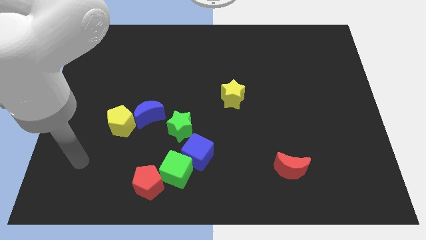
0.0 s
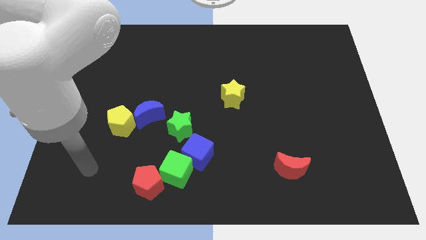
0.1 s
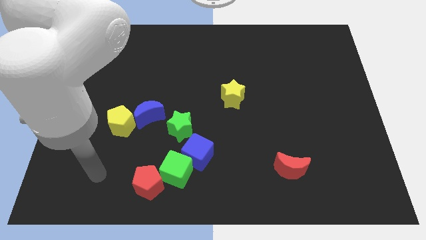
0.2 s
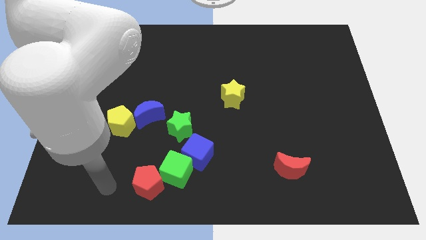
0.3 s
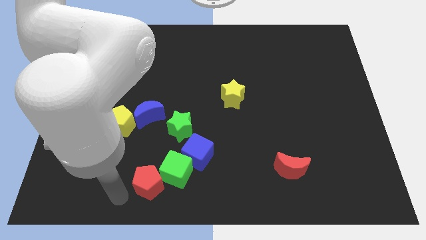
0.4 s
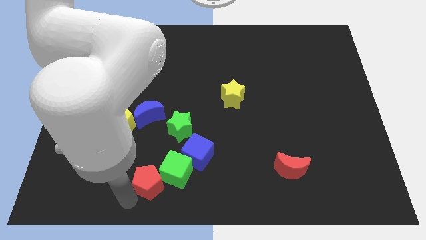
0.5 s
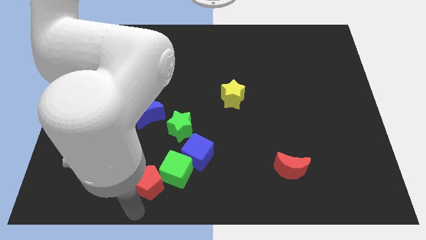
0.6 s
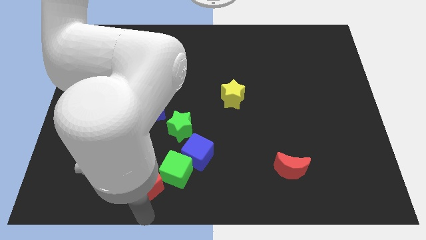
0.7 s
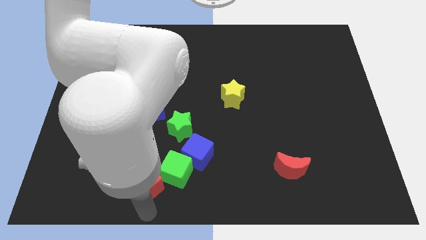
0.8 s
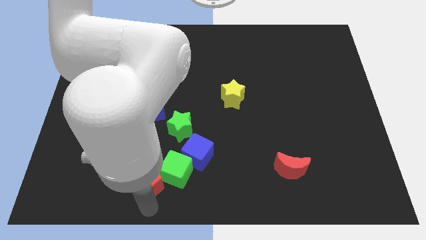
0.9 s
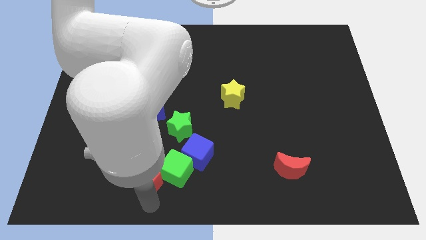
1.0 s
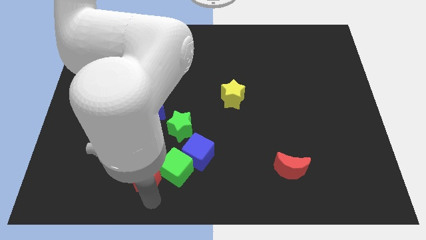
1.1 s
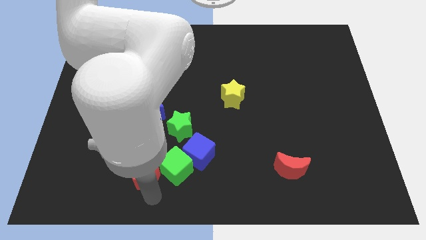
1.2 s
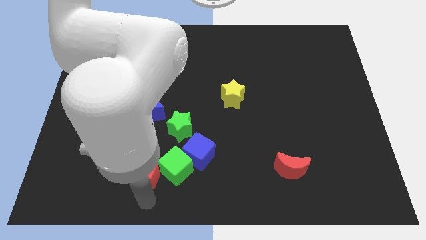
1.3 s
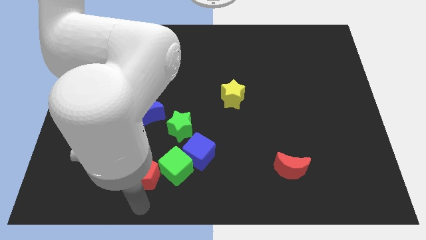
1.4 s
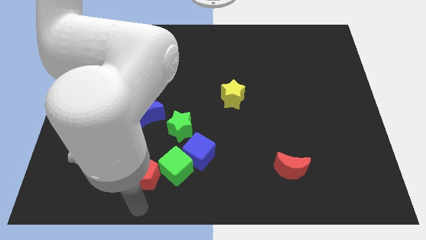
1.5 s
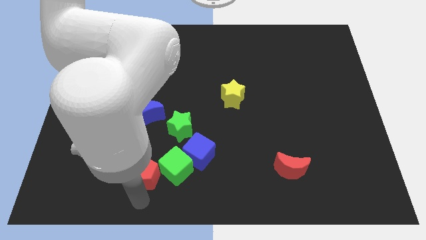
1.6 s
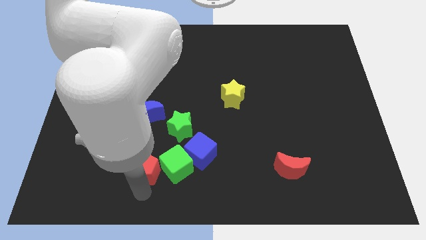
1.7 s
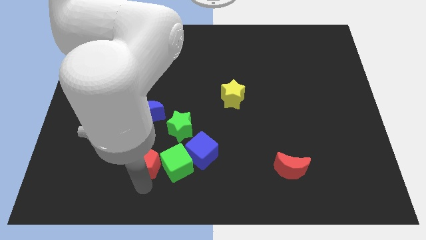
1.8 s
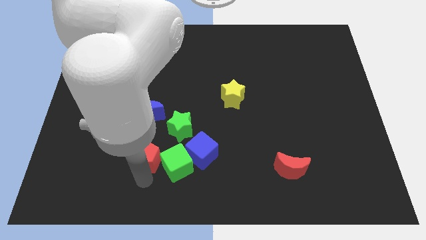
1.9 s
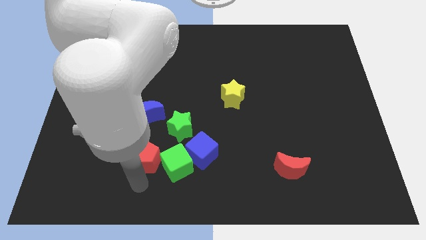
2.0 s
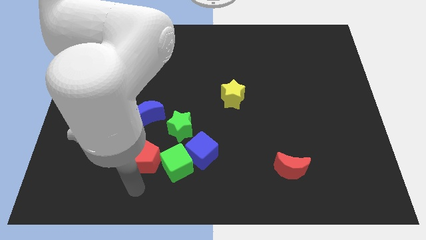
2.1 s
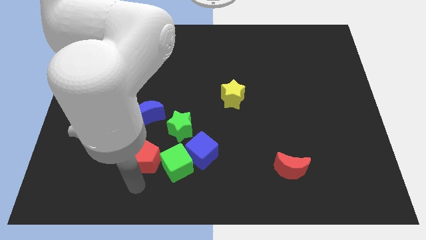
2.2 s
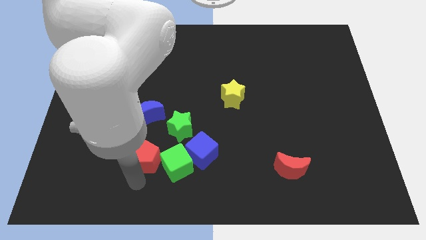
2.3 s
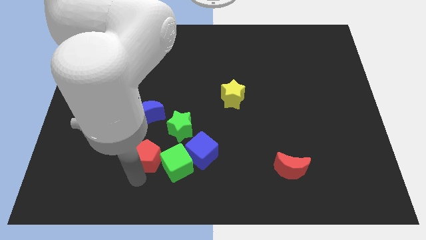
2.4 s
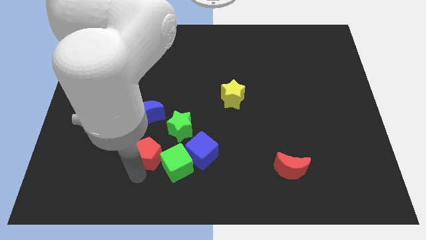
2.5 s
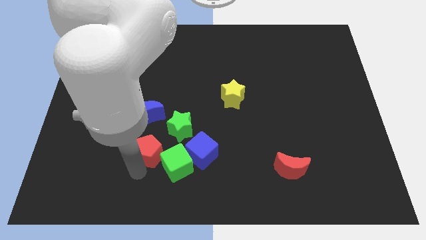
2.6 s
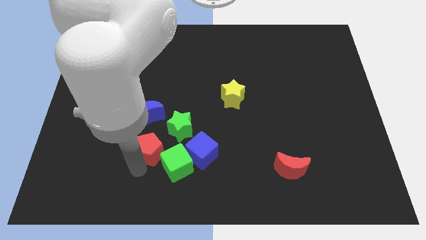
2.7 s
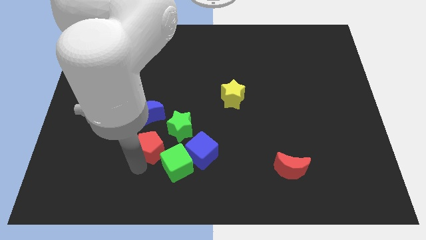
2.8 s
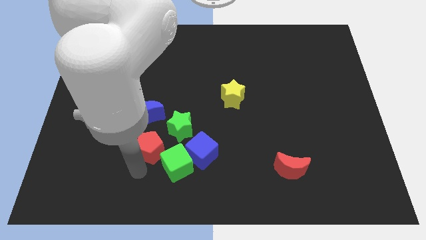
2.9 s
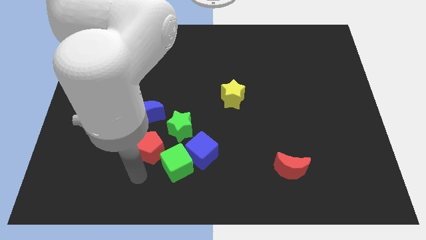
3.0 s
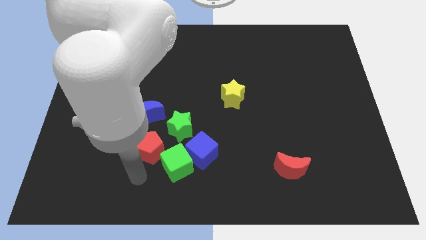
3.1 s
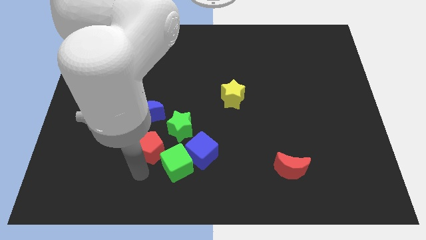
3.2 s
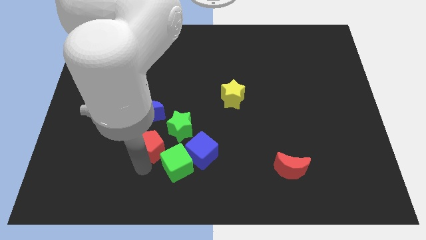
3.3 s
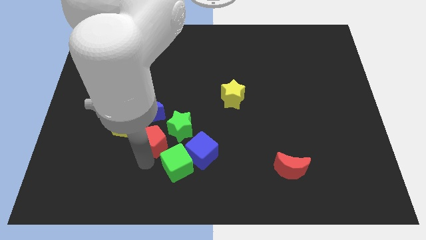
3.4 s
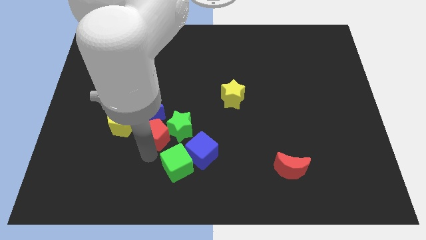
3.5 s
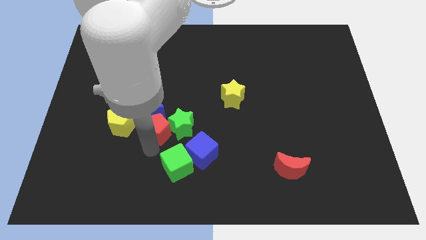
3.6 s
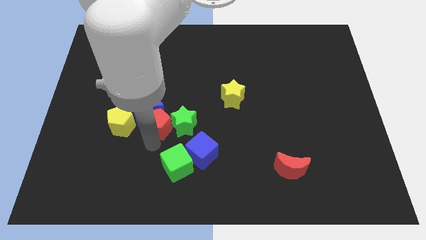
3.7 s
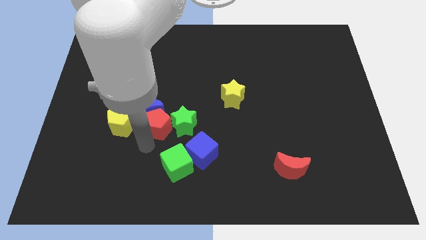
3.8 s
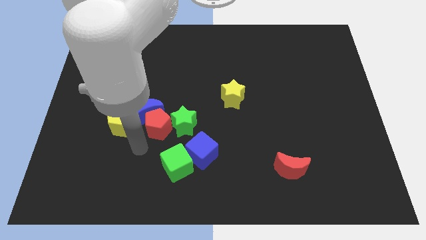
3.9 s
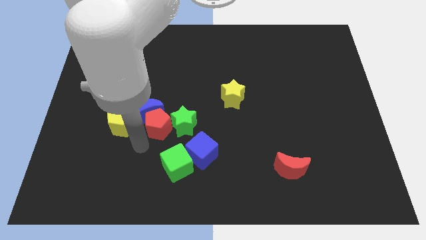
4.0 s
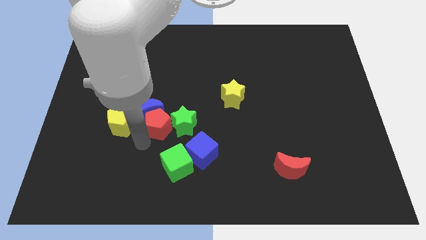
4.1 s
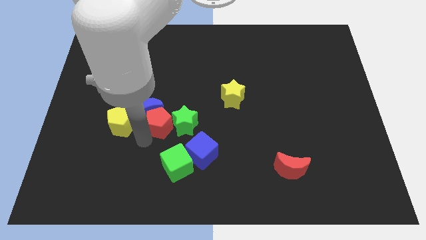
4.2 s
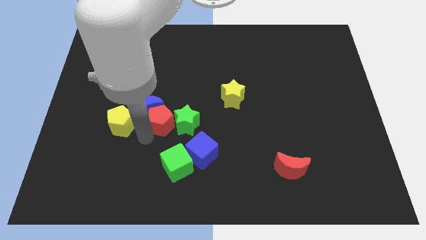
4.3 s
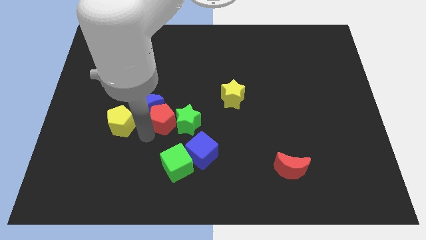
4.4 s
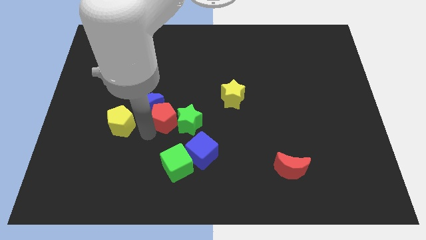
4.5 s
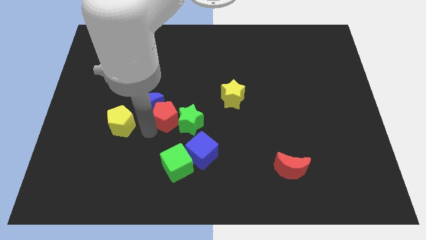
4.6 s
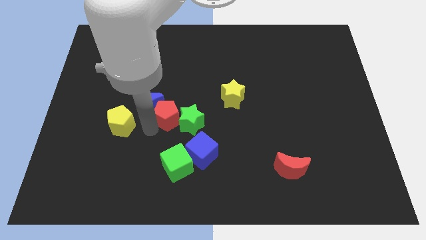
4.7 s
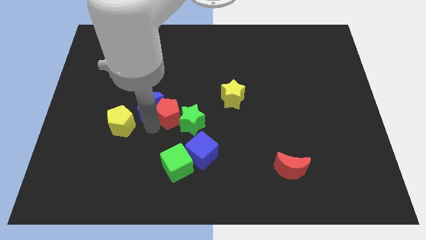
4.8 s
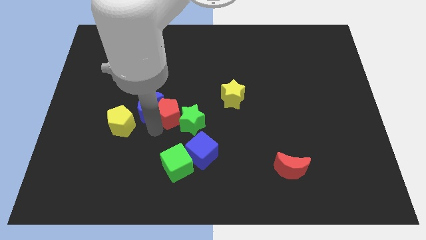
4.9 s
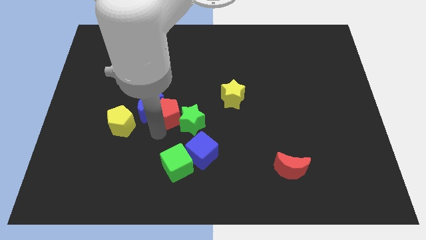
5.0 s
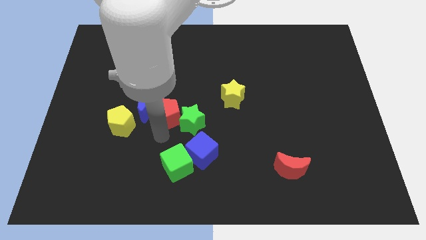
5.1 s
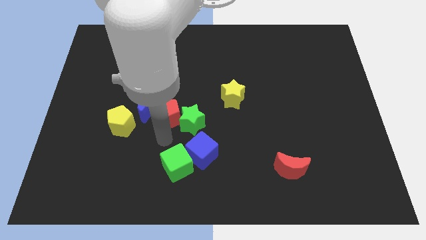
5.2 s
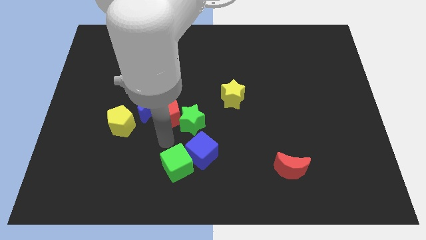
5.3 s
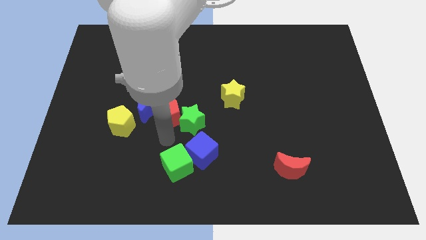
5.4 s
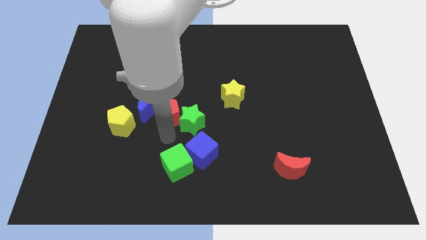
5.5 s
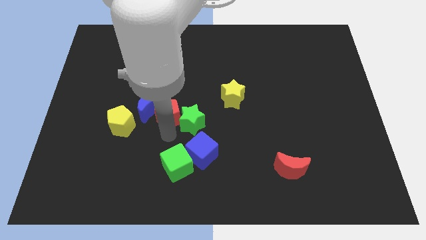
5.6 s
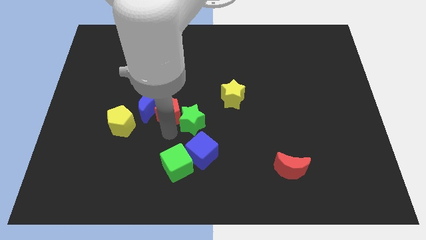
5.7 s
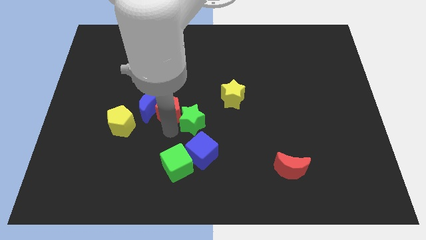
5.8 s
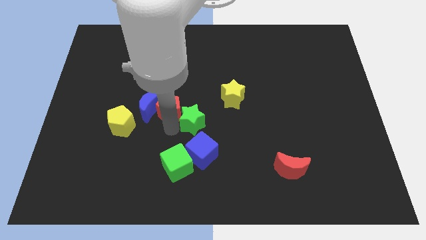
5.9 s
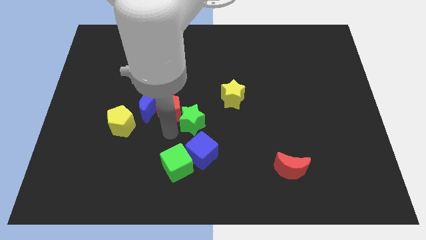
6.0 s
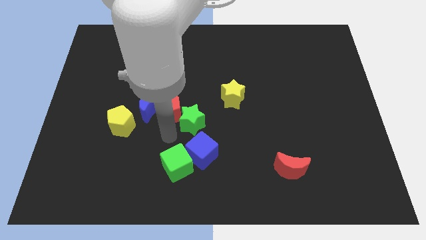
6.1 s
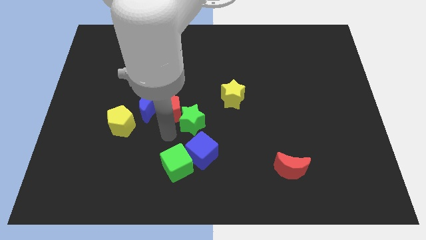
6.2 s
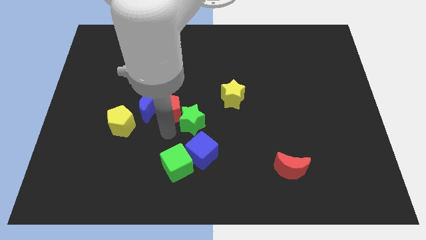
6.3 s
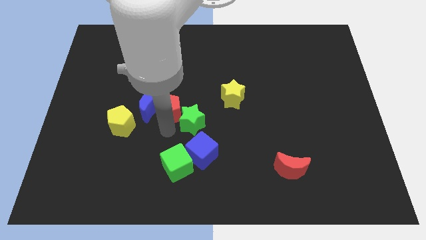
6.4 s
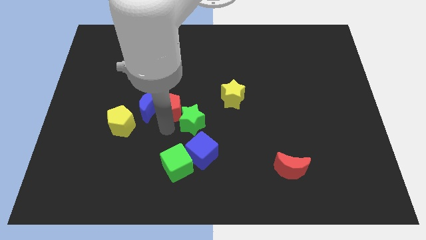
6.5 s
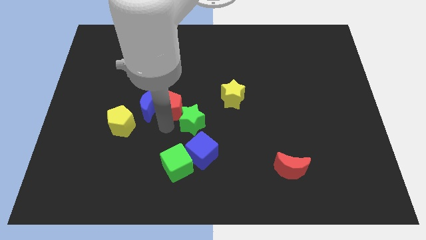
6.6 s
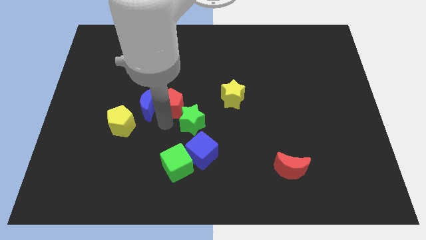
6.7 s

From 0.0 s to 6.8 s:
slide the red pentagon up

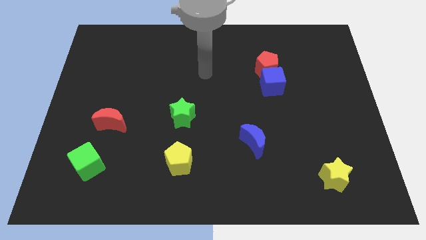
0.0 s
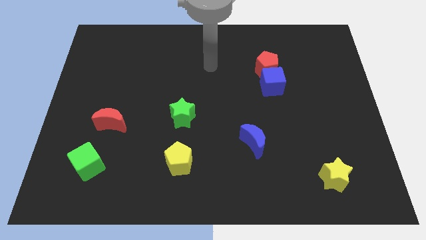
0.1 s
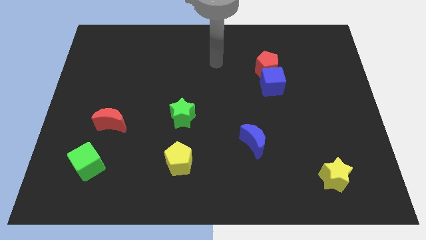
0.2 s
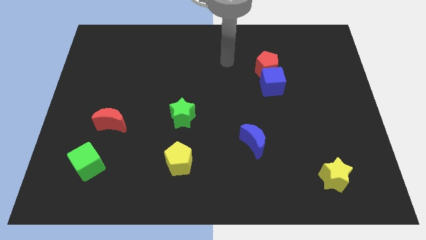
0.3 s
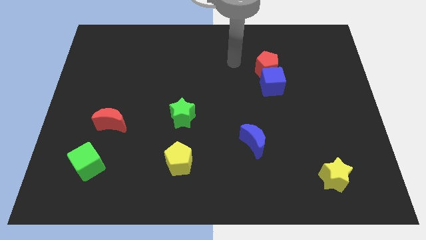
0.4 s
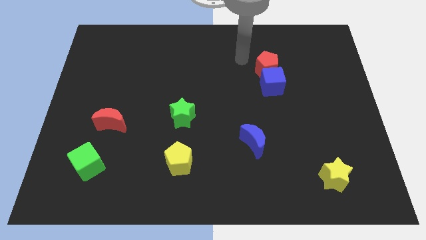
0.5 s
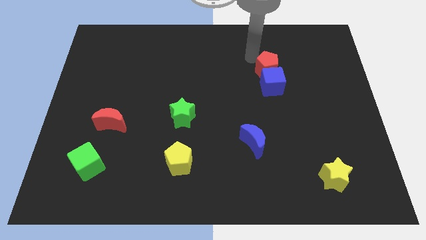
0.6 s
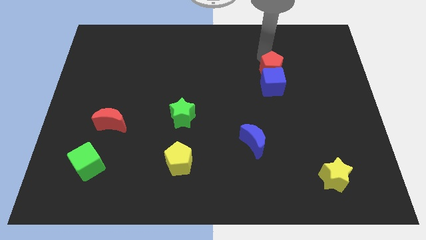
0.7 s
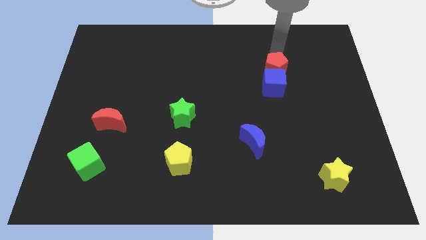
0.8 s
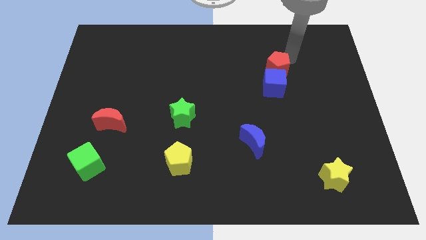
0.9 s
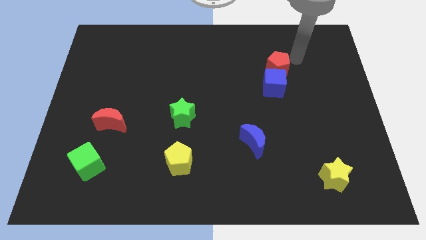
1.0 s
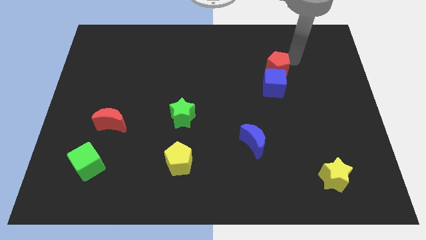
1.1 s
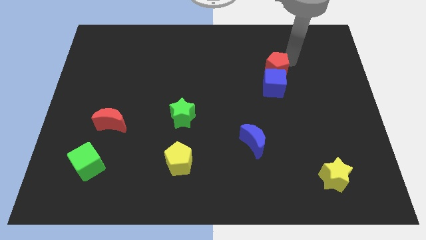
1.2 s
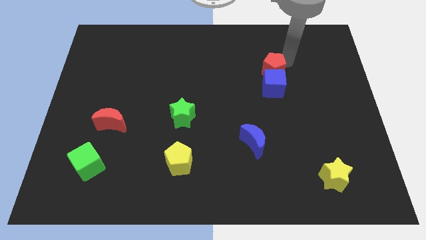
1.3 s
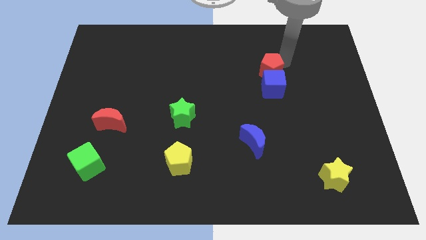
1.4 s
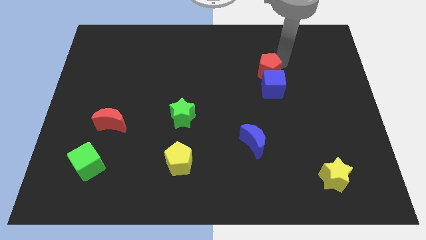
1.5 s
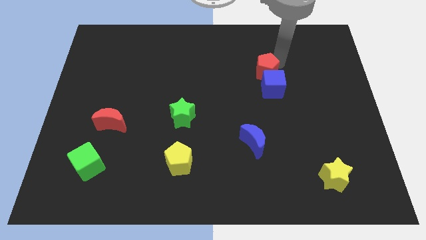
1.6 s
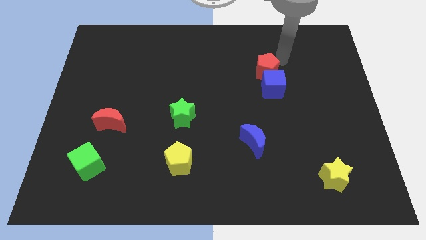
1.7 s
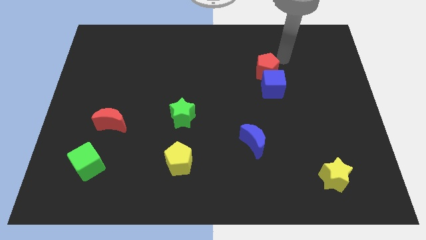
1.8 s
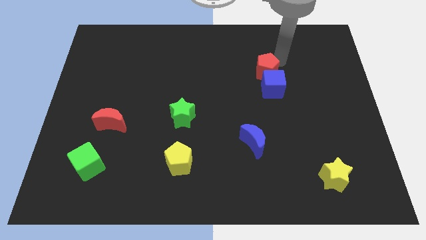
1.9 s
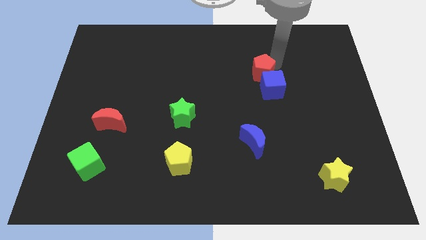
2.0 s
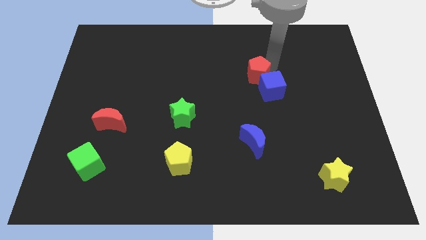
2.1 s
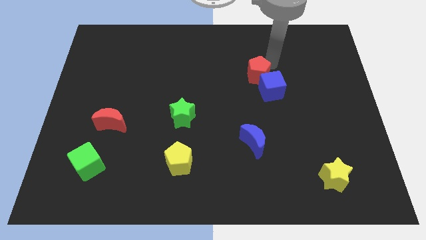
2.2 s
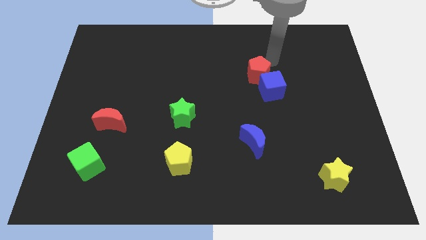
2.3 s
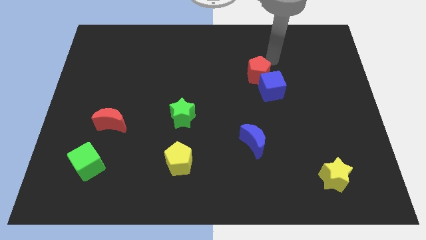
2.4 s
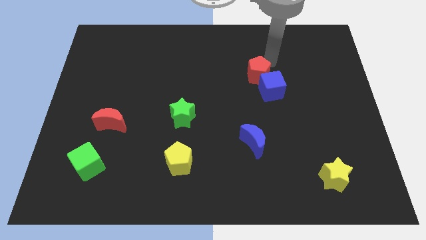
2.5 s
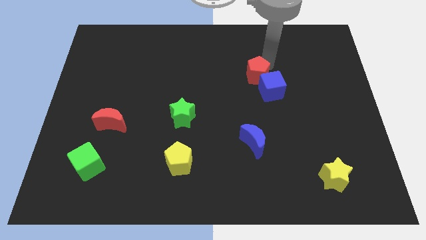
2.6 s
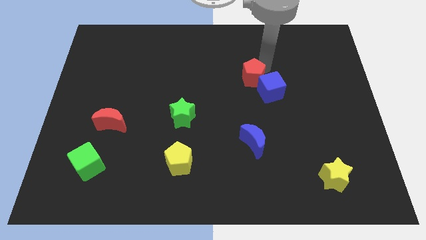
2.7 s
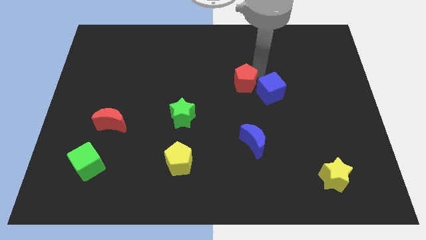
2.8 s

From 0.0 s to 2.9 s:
slide the red pentagon down and then to the left slightly
